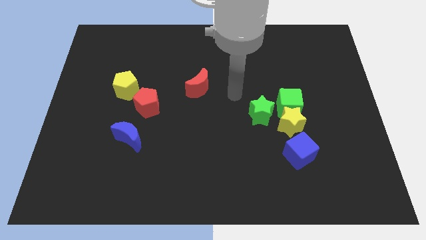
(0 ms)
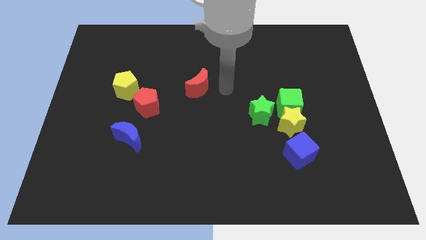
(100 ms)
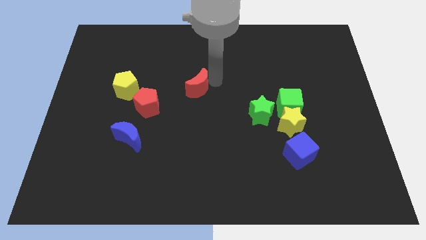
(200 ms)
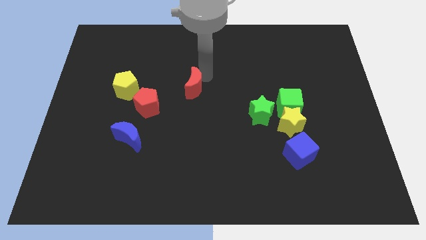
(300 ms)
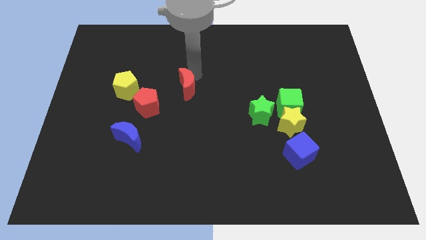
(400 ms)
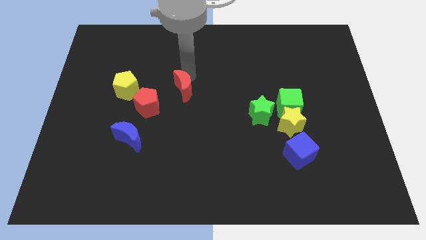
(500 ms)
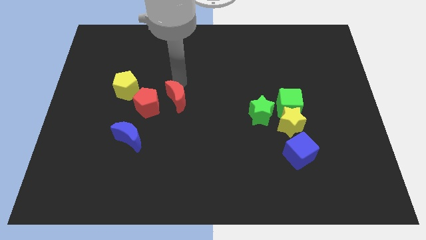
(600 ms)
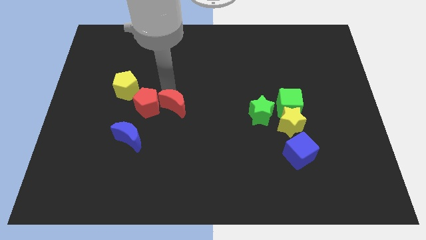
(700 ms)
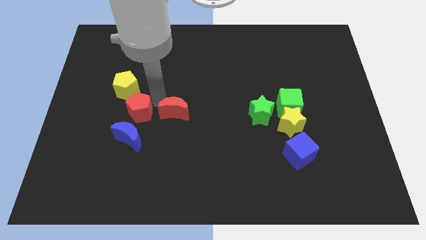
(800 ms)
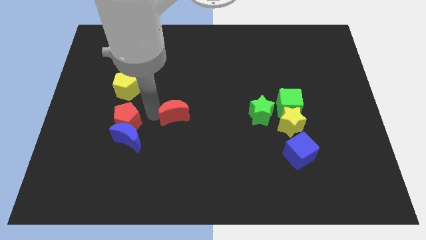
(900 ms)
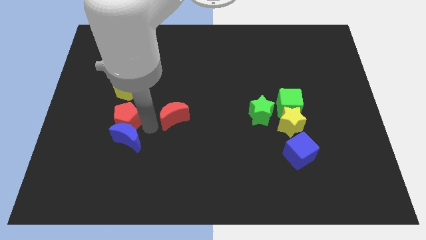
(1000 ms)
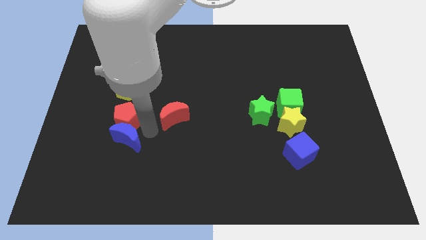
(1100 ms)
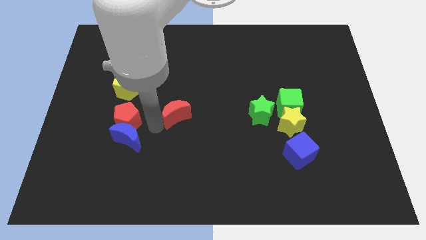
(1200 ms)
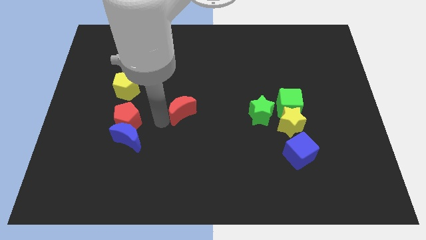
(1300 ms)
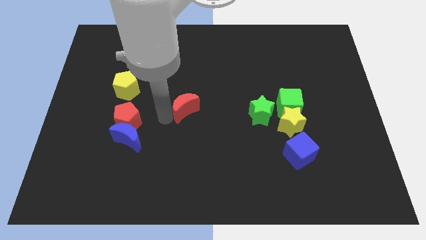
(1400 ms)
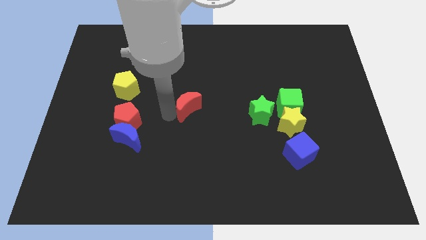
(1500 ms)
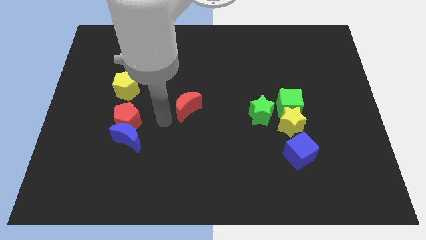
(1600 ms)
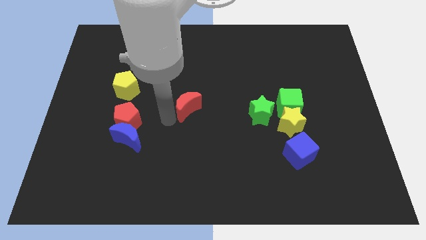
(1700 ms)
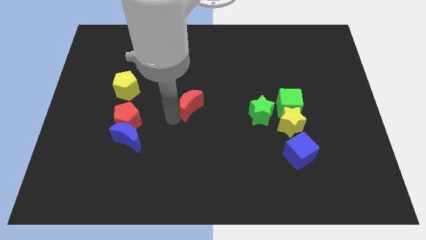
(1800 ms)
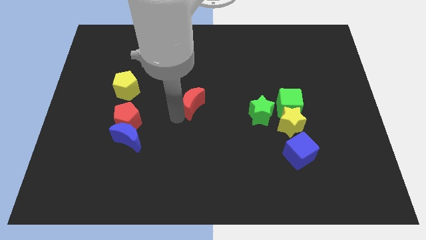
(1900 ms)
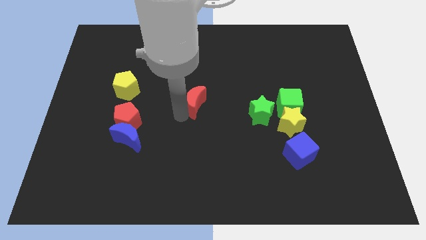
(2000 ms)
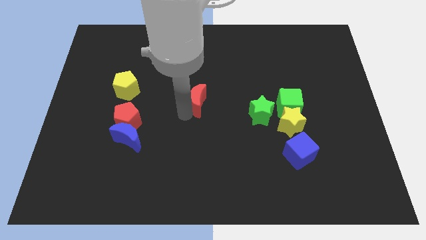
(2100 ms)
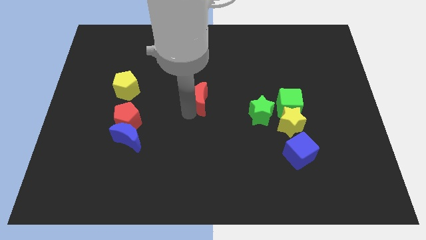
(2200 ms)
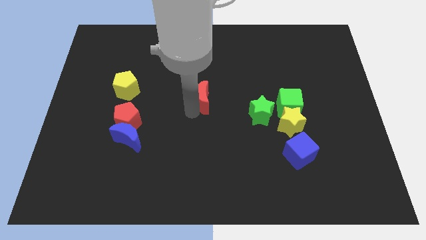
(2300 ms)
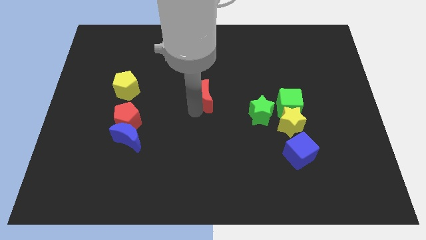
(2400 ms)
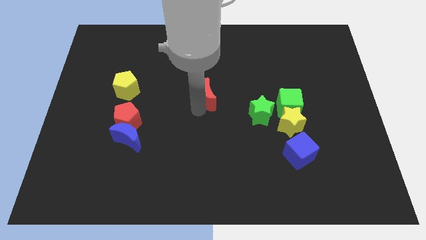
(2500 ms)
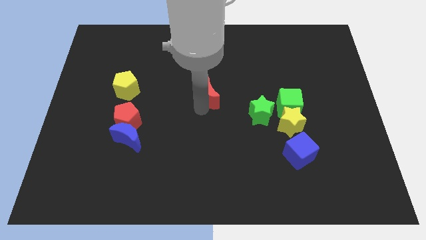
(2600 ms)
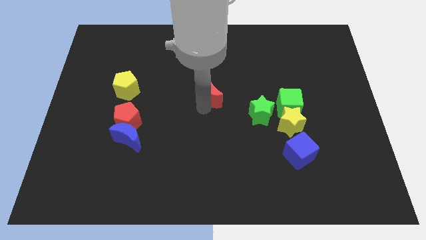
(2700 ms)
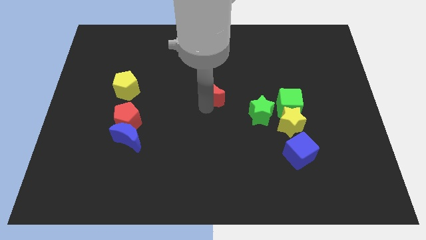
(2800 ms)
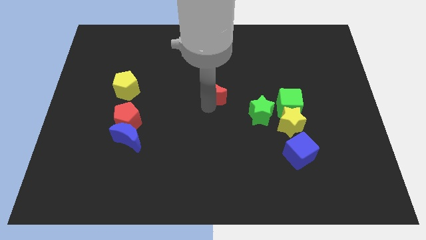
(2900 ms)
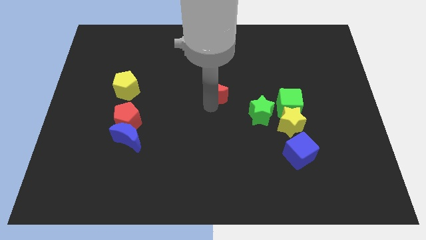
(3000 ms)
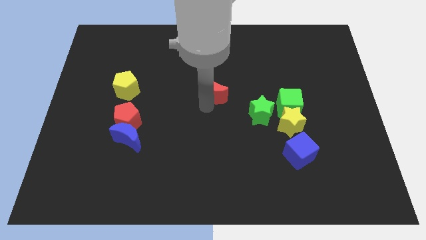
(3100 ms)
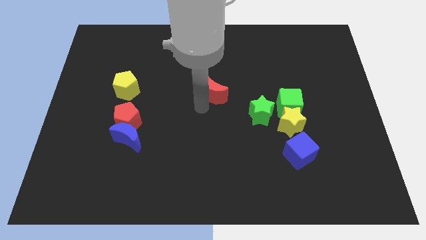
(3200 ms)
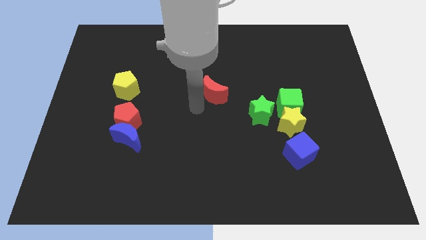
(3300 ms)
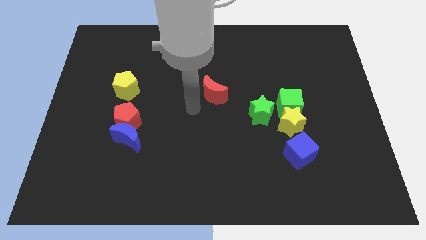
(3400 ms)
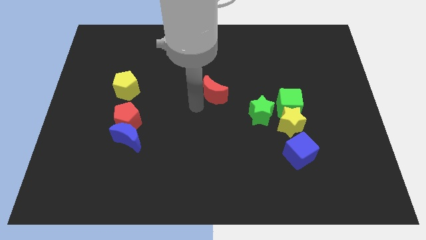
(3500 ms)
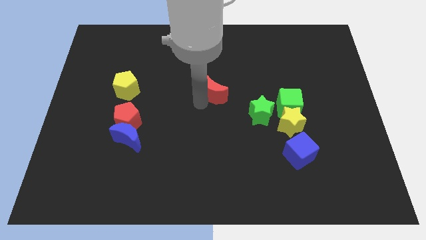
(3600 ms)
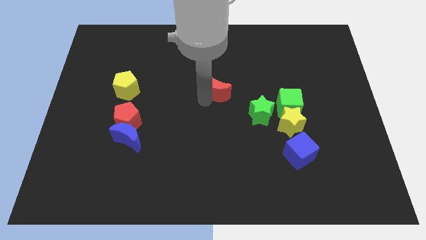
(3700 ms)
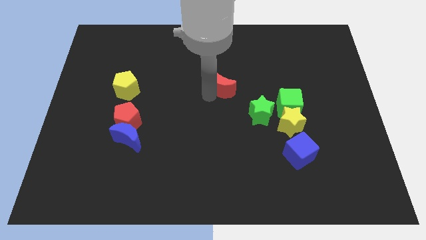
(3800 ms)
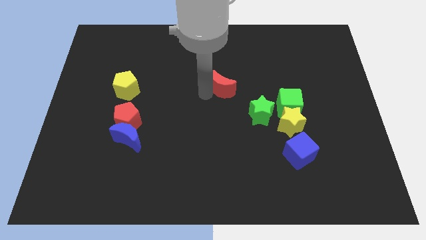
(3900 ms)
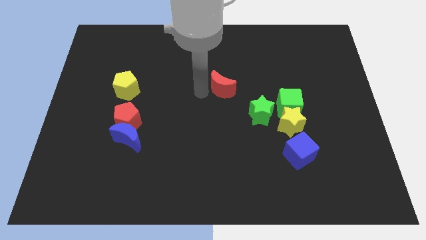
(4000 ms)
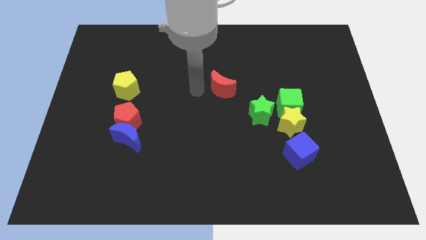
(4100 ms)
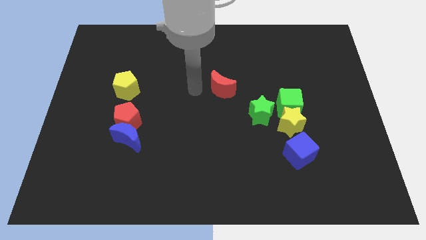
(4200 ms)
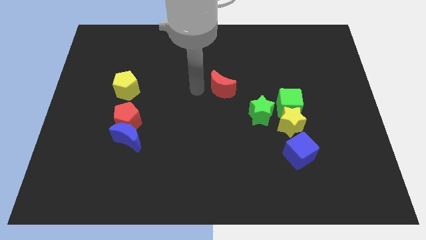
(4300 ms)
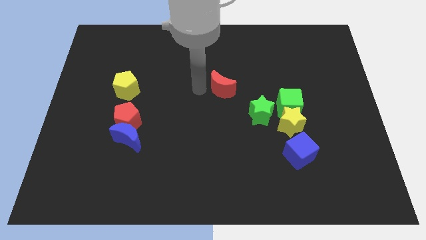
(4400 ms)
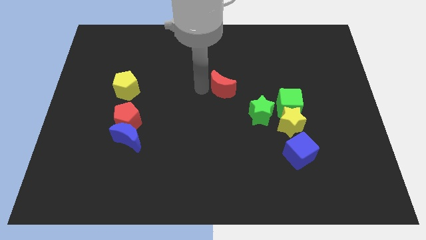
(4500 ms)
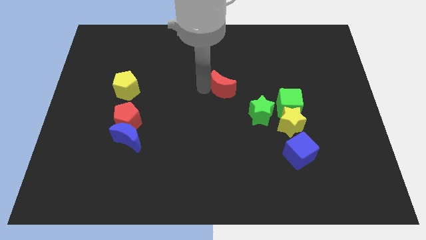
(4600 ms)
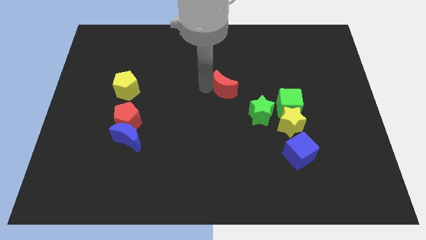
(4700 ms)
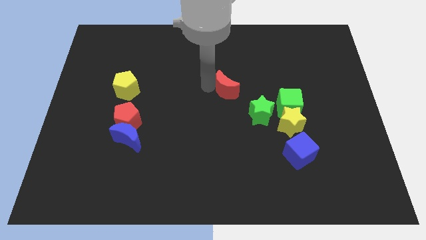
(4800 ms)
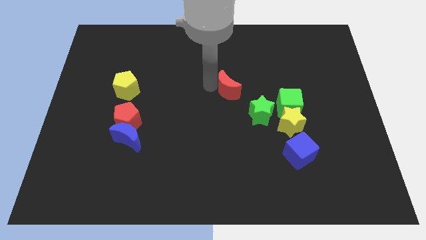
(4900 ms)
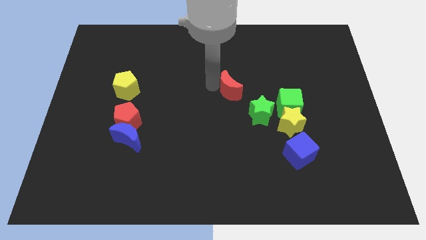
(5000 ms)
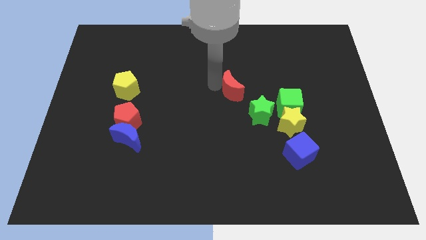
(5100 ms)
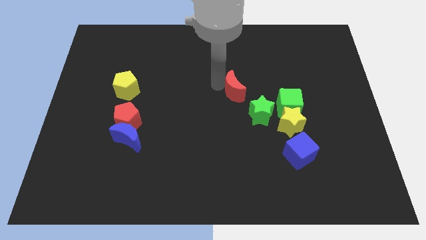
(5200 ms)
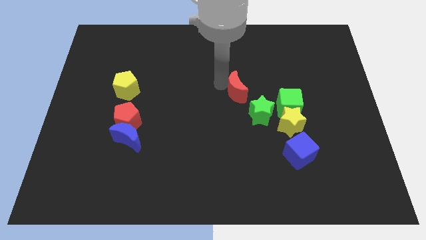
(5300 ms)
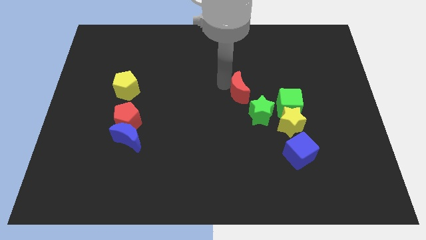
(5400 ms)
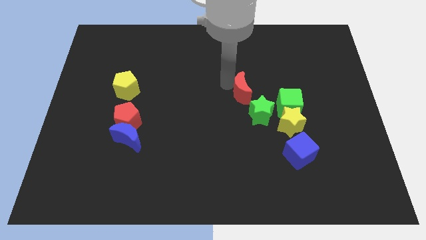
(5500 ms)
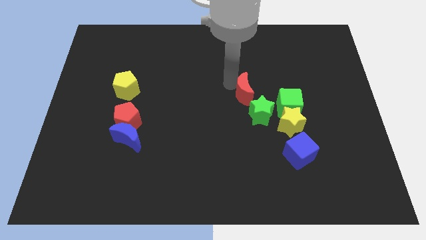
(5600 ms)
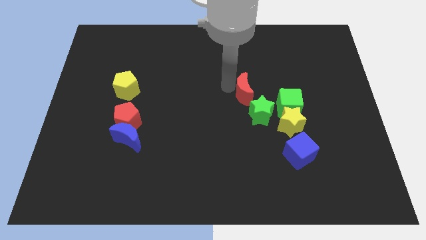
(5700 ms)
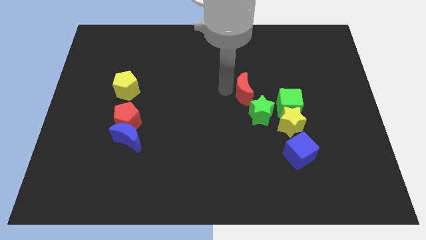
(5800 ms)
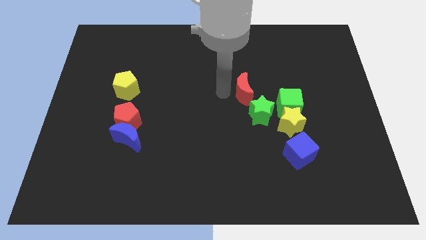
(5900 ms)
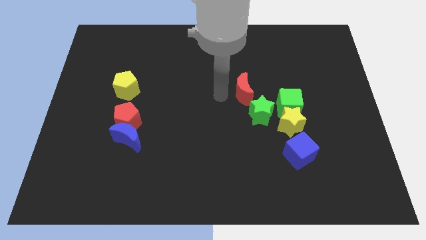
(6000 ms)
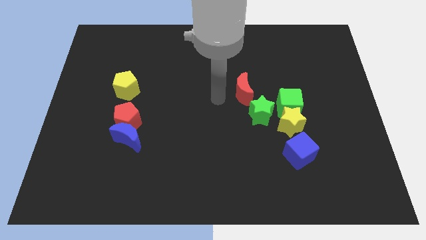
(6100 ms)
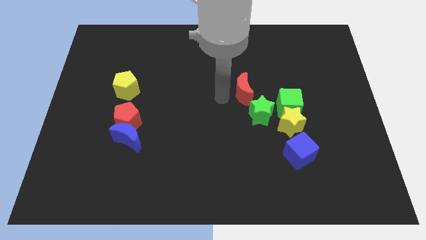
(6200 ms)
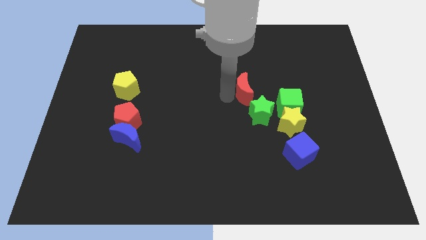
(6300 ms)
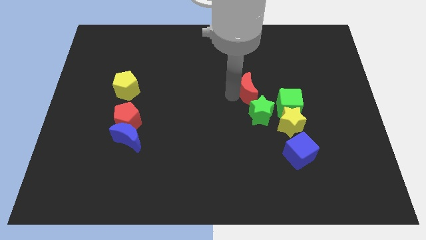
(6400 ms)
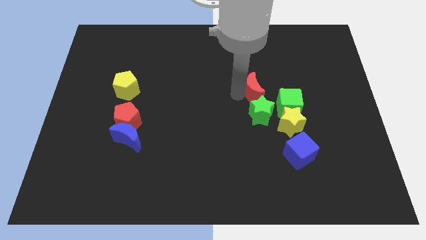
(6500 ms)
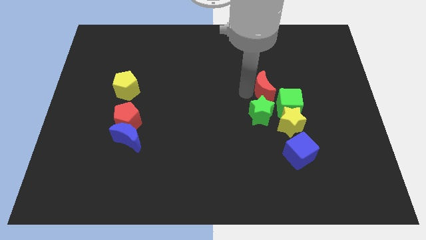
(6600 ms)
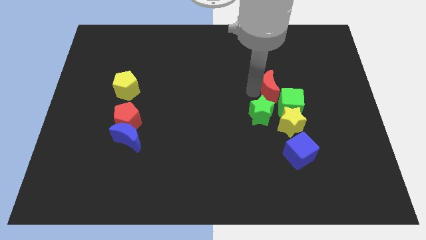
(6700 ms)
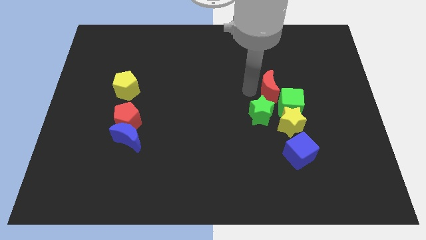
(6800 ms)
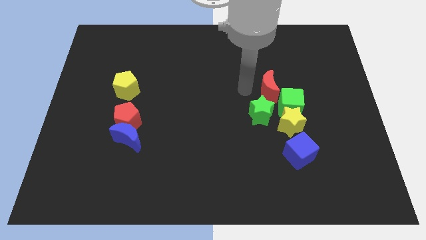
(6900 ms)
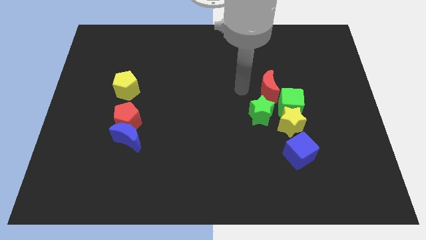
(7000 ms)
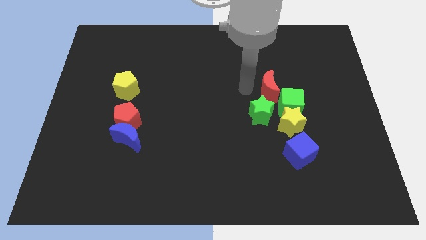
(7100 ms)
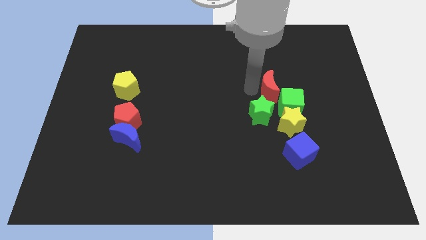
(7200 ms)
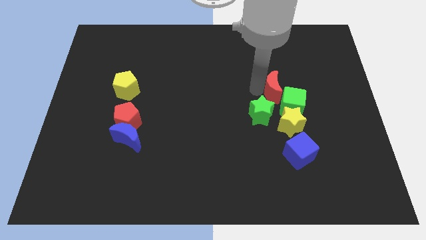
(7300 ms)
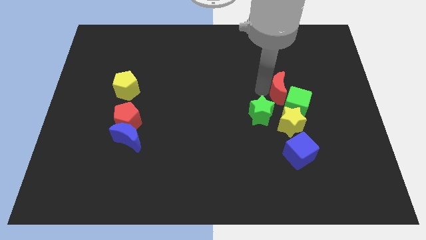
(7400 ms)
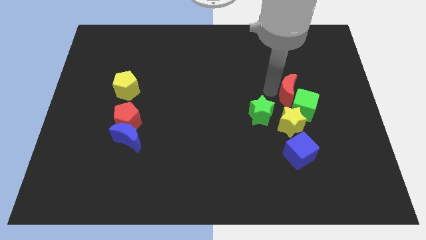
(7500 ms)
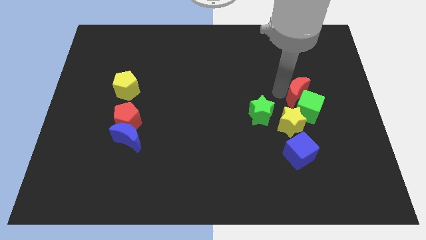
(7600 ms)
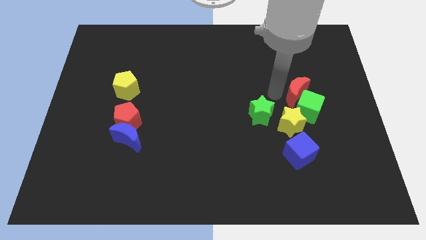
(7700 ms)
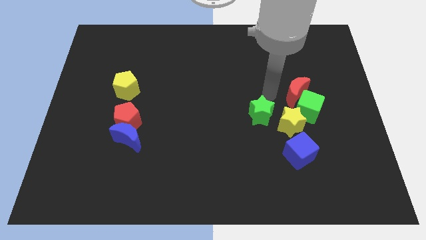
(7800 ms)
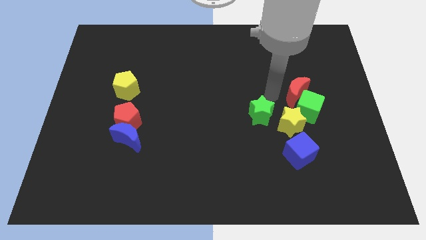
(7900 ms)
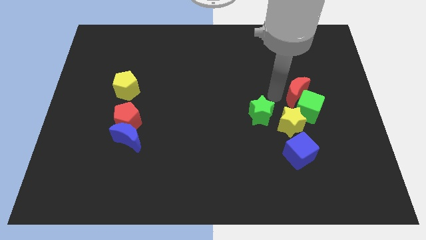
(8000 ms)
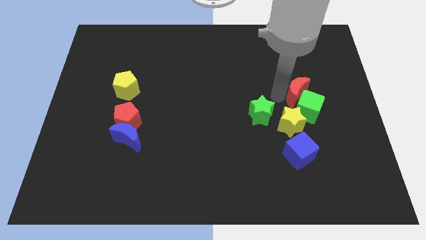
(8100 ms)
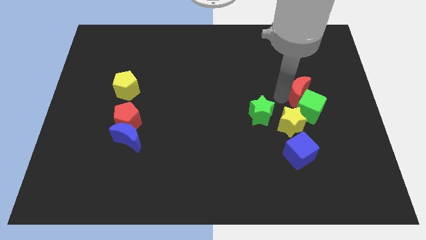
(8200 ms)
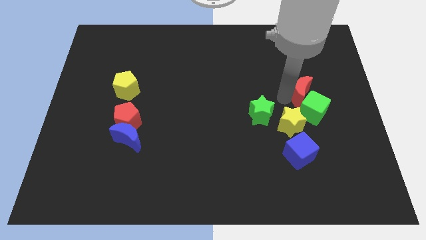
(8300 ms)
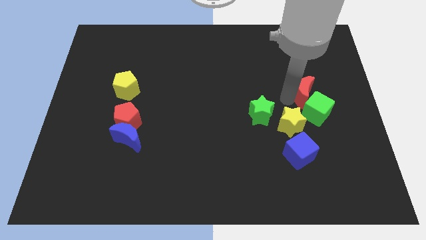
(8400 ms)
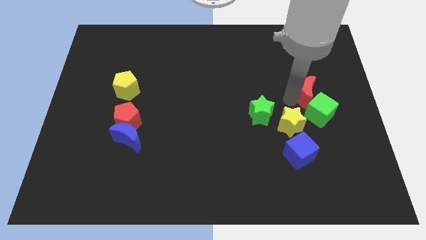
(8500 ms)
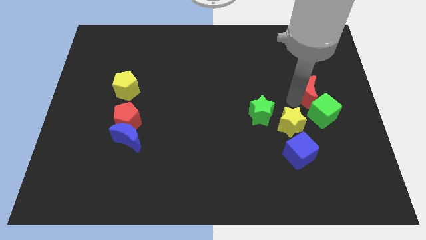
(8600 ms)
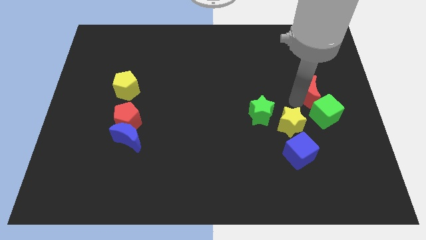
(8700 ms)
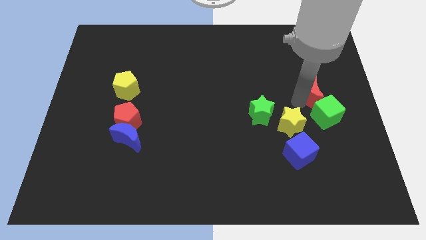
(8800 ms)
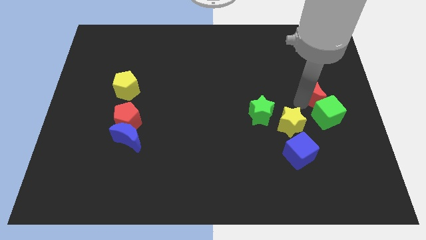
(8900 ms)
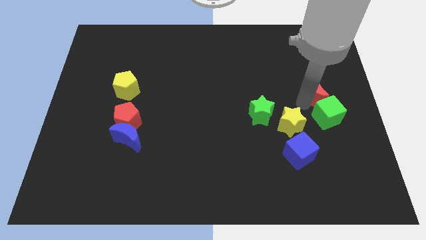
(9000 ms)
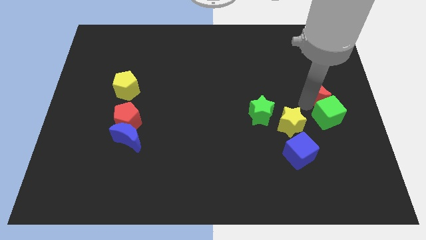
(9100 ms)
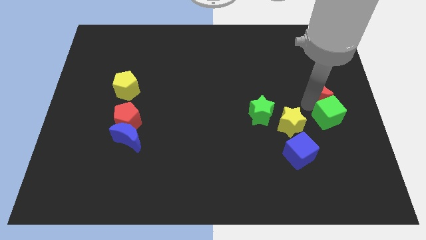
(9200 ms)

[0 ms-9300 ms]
put the red moon to the right side of the board
